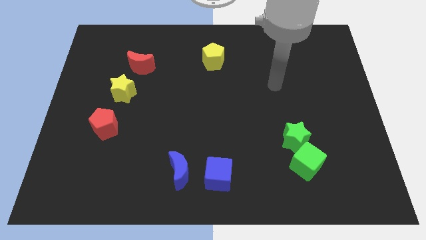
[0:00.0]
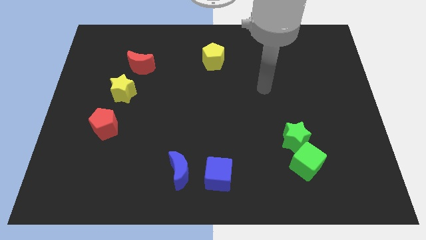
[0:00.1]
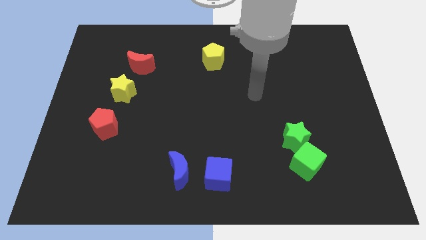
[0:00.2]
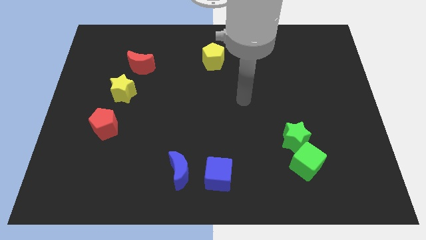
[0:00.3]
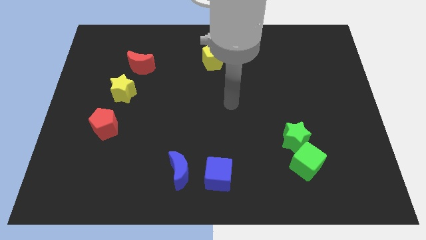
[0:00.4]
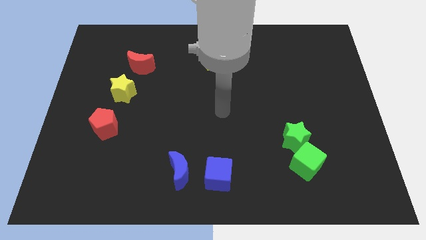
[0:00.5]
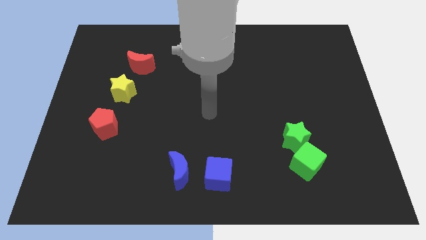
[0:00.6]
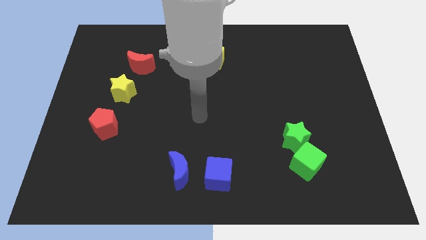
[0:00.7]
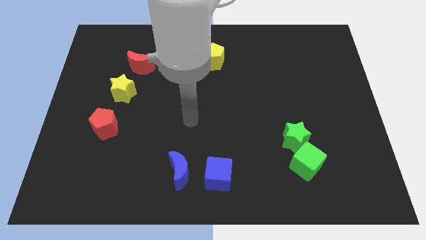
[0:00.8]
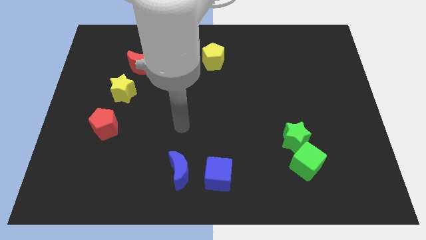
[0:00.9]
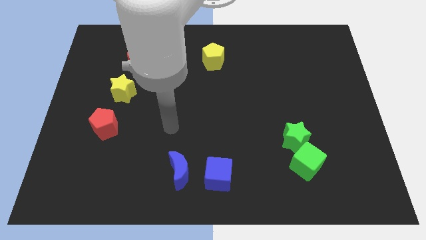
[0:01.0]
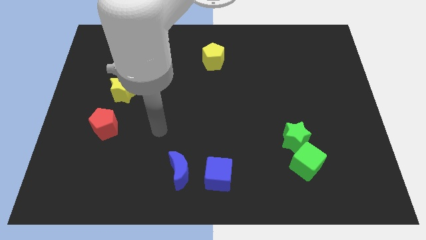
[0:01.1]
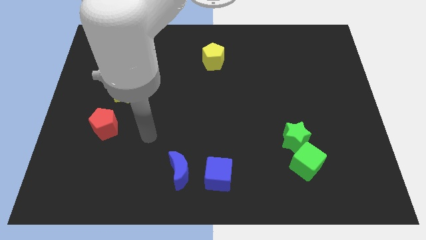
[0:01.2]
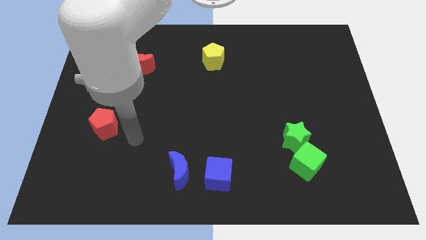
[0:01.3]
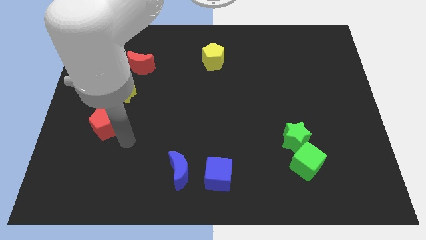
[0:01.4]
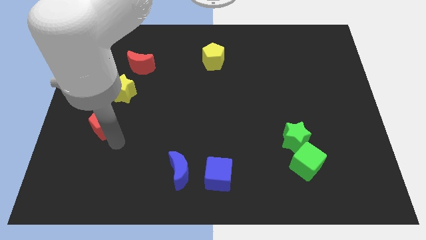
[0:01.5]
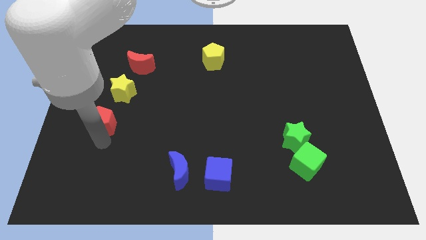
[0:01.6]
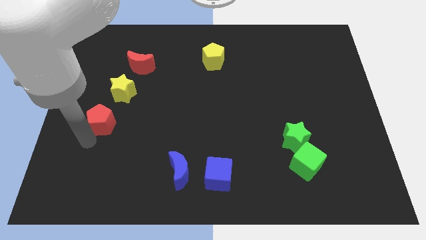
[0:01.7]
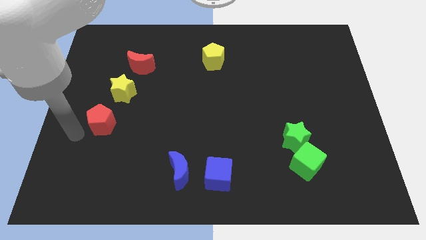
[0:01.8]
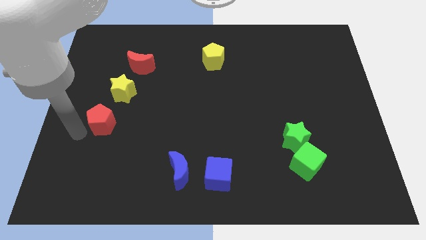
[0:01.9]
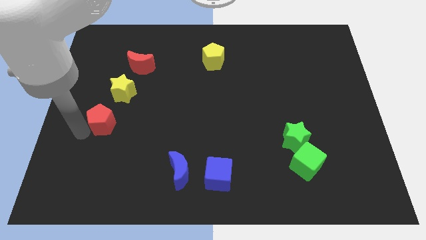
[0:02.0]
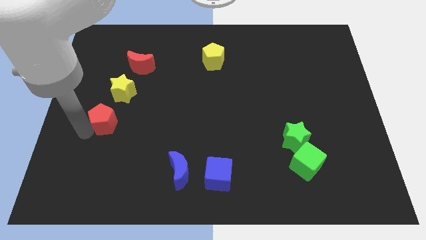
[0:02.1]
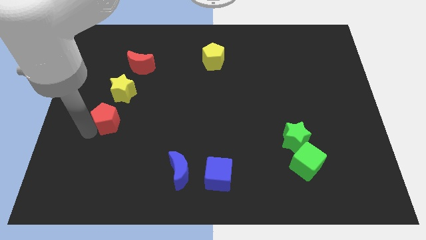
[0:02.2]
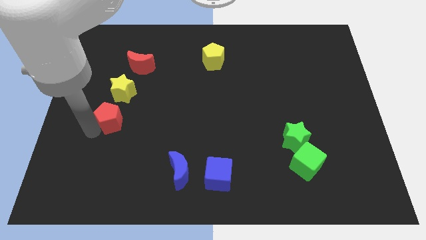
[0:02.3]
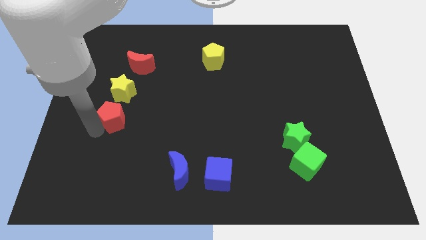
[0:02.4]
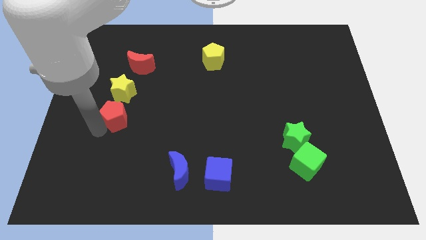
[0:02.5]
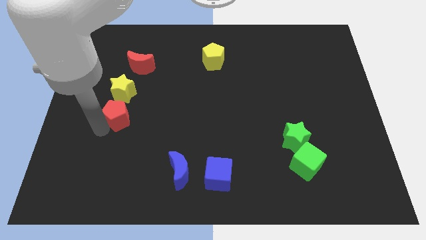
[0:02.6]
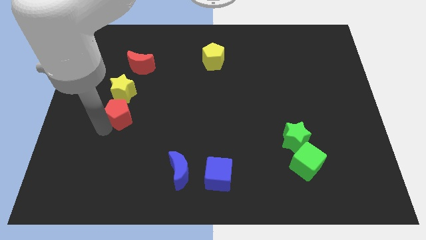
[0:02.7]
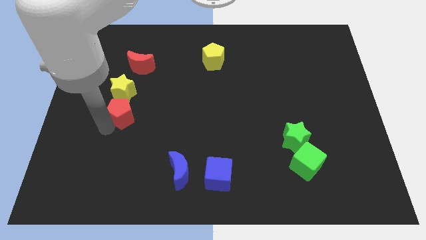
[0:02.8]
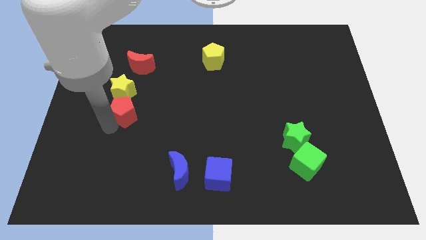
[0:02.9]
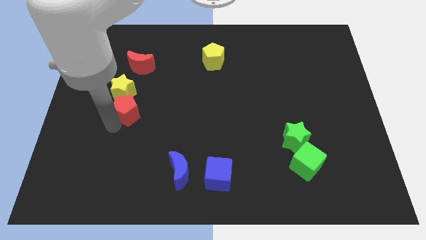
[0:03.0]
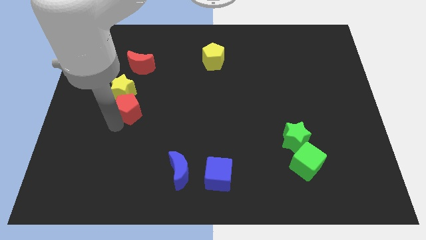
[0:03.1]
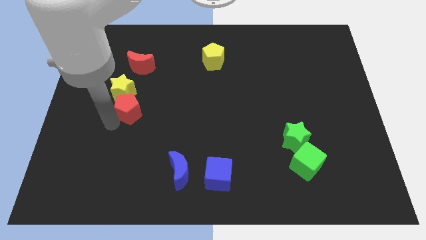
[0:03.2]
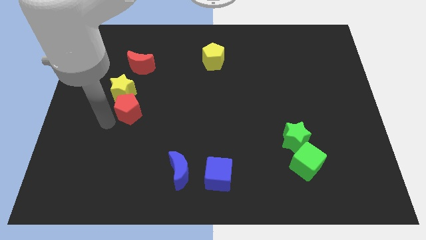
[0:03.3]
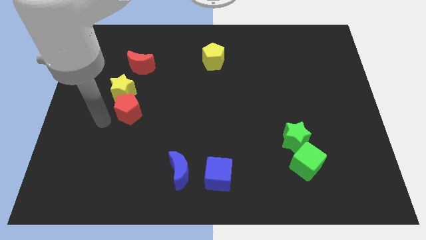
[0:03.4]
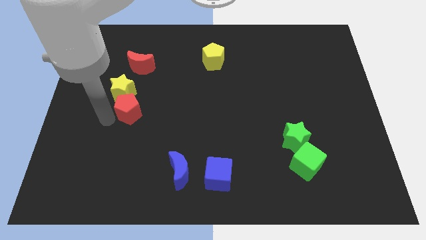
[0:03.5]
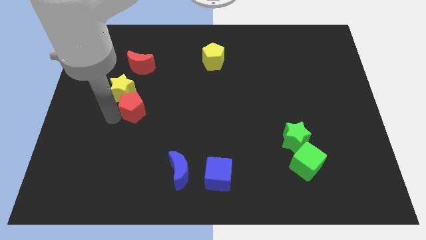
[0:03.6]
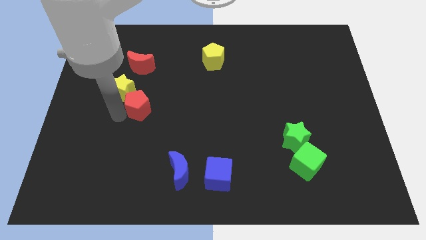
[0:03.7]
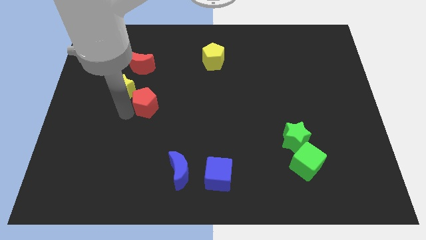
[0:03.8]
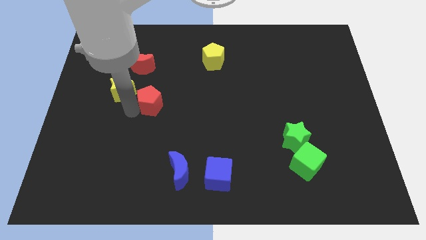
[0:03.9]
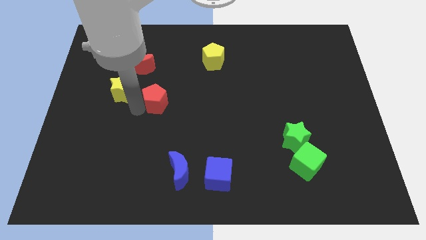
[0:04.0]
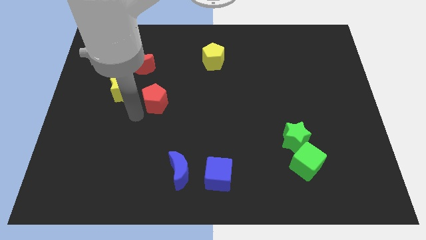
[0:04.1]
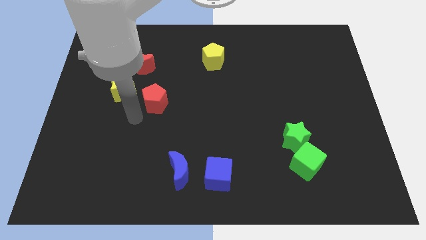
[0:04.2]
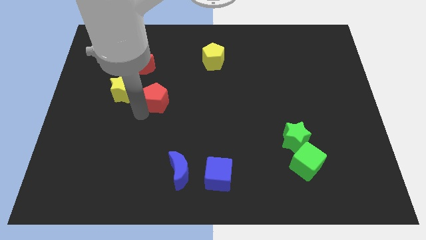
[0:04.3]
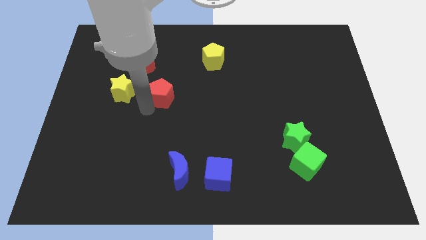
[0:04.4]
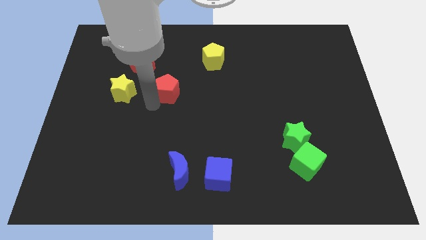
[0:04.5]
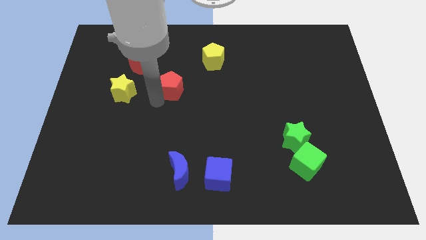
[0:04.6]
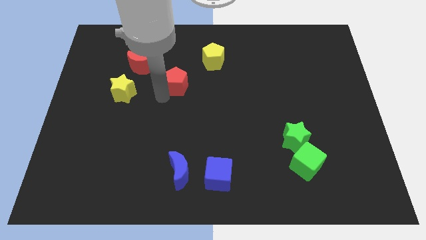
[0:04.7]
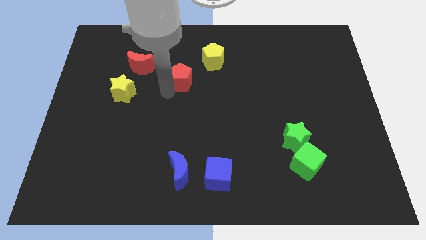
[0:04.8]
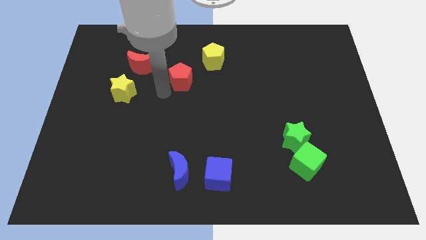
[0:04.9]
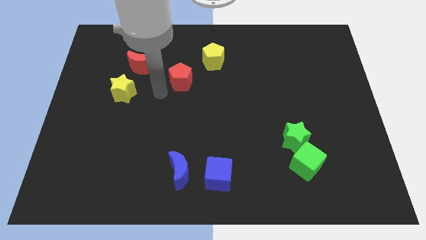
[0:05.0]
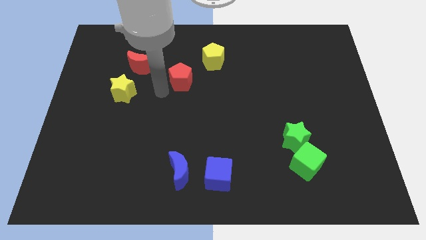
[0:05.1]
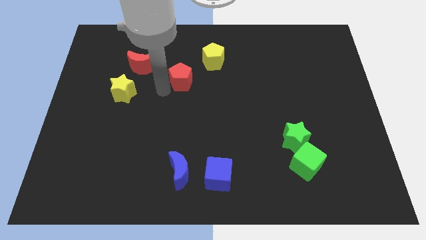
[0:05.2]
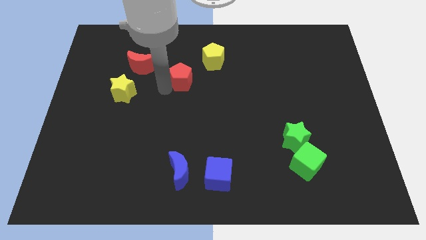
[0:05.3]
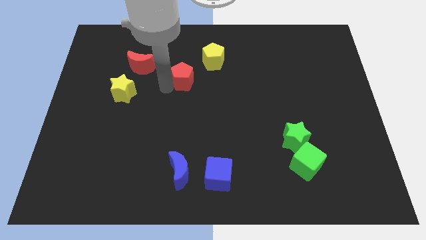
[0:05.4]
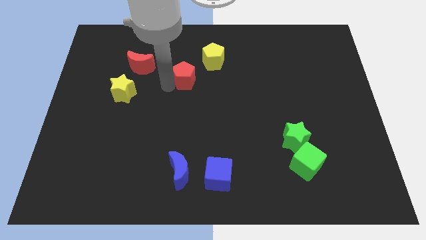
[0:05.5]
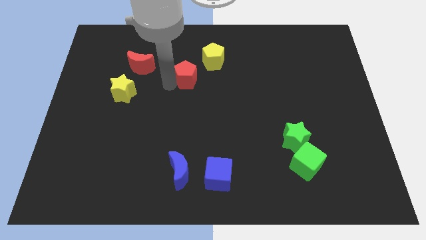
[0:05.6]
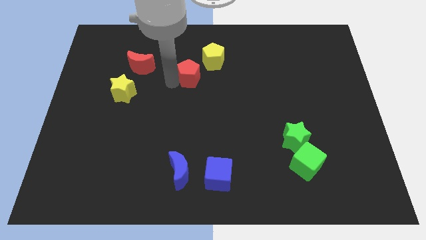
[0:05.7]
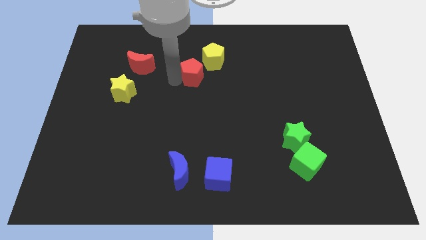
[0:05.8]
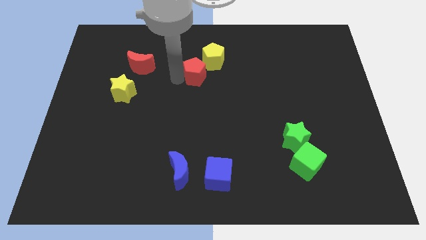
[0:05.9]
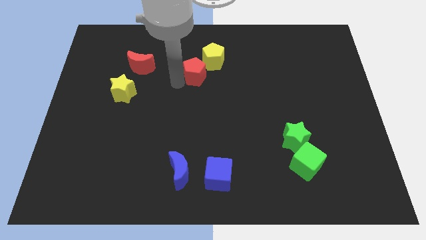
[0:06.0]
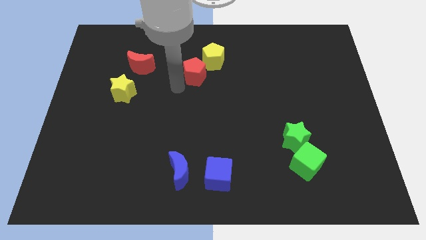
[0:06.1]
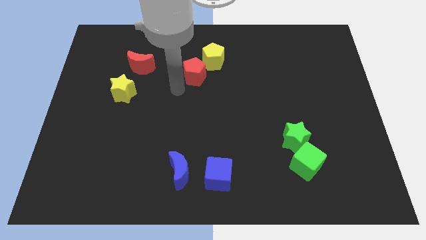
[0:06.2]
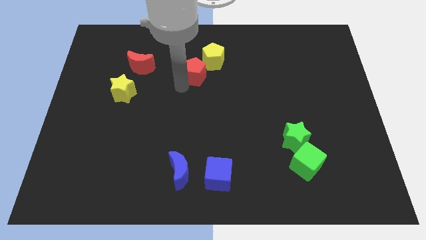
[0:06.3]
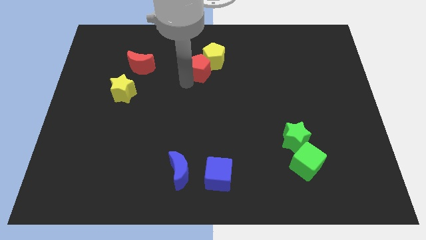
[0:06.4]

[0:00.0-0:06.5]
push the red pentagon next to the yellow pentagon

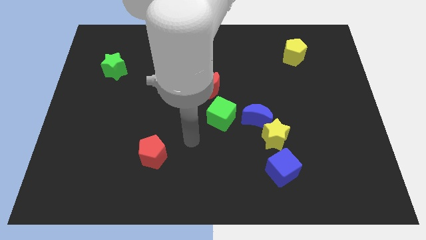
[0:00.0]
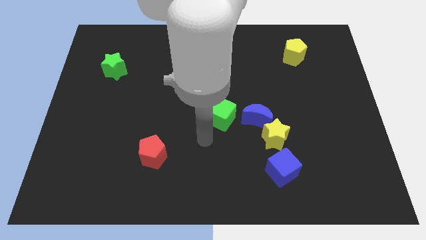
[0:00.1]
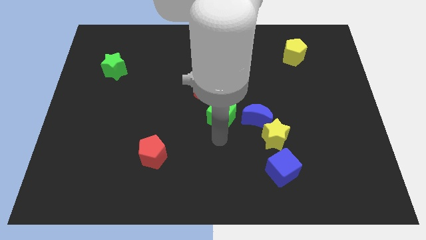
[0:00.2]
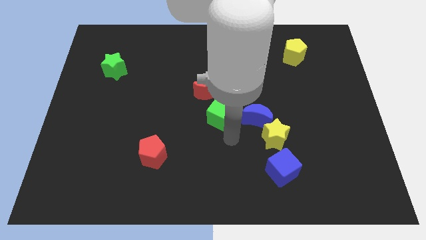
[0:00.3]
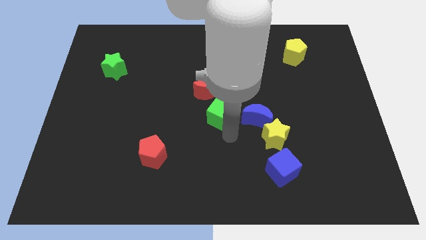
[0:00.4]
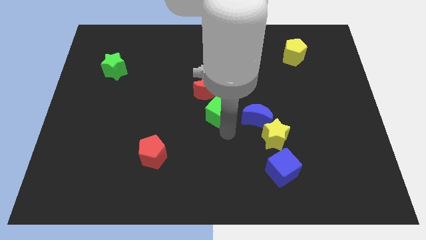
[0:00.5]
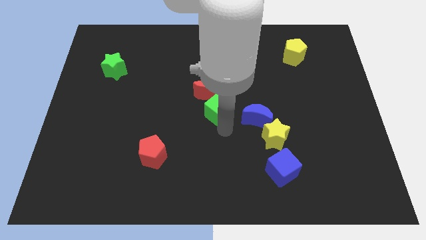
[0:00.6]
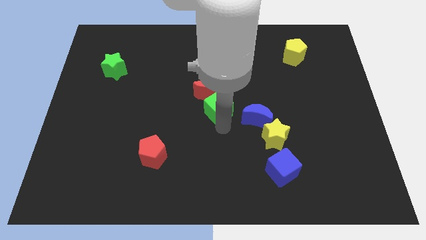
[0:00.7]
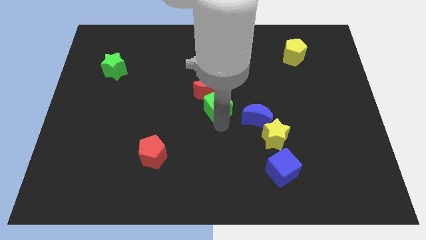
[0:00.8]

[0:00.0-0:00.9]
move the green cube towards the red moon
